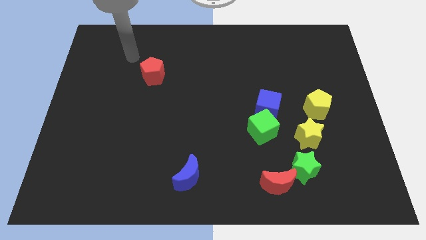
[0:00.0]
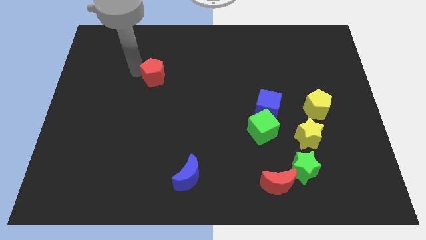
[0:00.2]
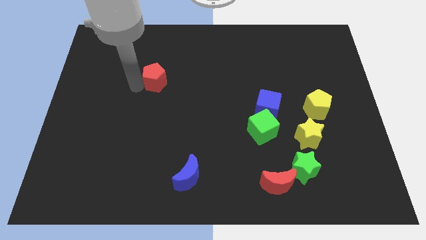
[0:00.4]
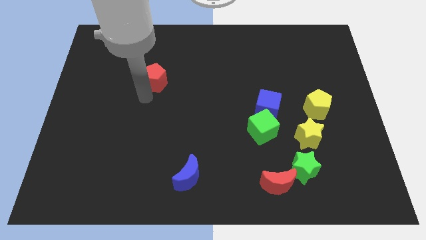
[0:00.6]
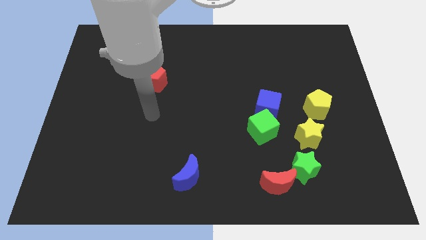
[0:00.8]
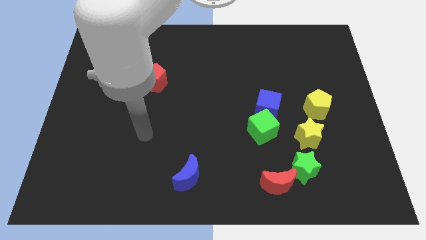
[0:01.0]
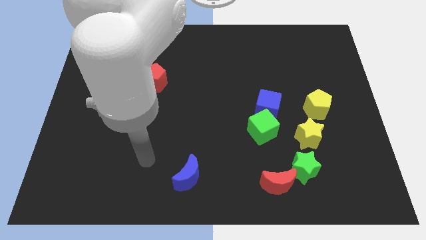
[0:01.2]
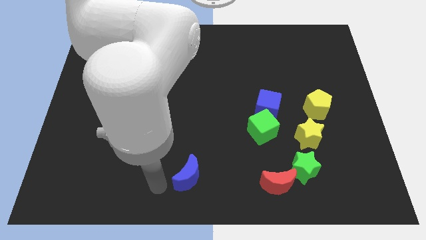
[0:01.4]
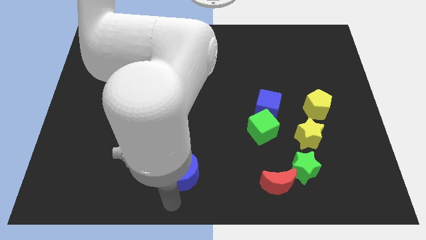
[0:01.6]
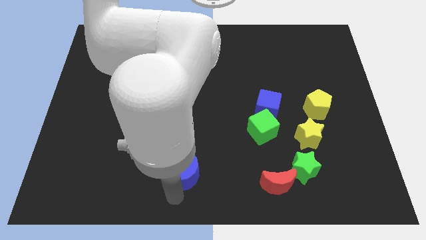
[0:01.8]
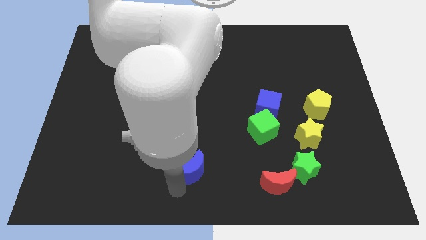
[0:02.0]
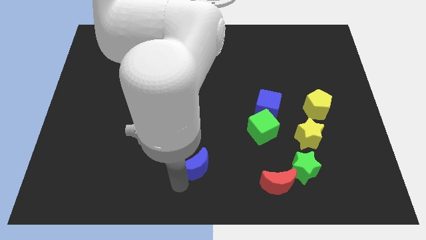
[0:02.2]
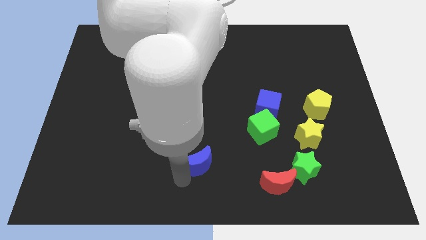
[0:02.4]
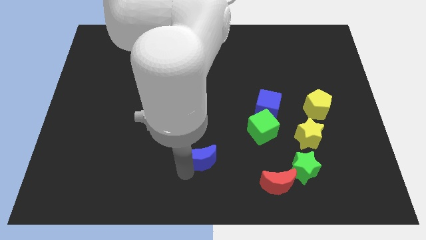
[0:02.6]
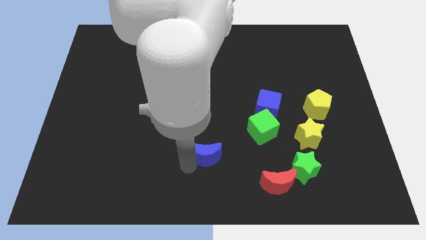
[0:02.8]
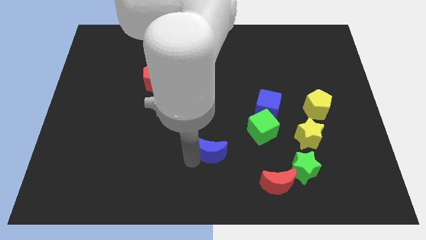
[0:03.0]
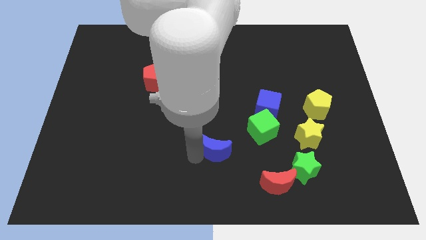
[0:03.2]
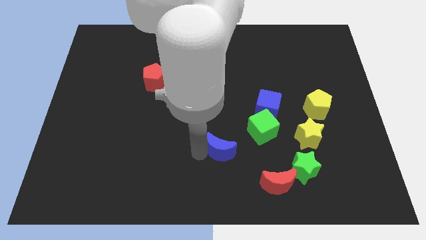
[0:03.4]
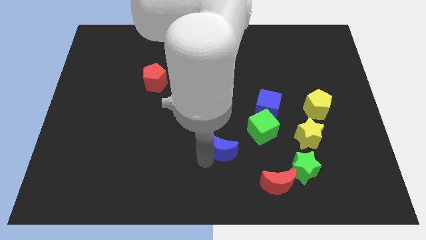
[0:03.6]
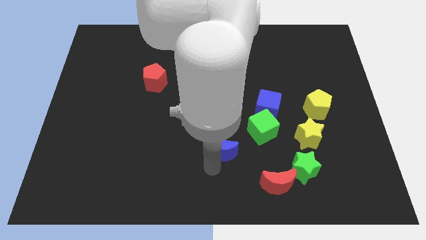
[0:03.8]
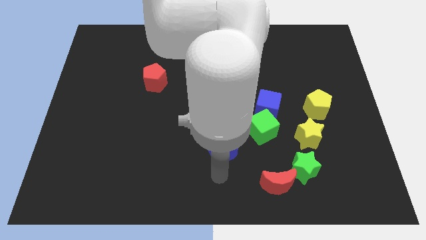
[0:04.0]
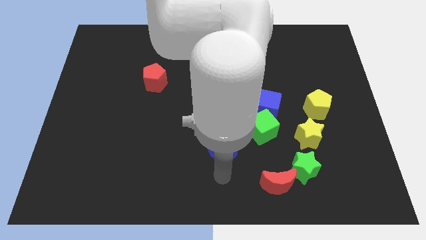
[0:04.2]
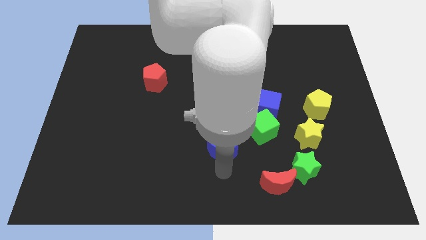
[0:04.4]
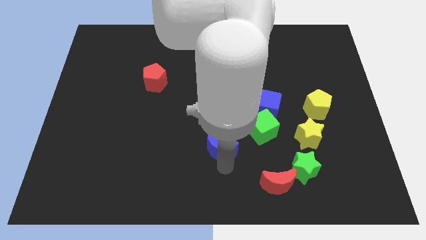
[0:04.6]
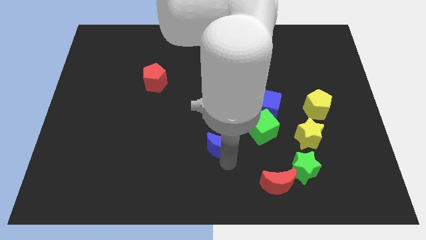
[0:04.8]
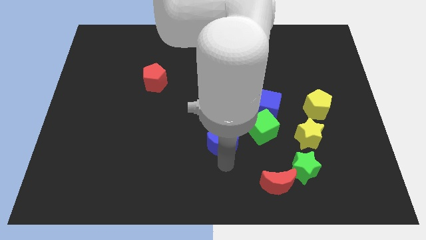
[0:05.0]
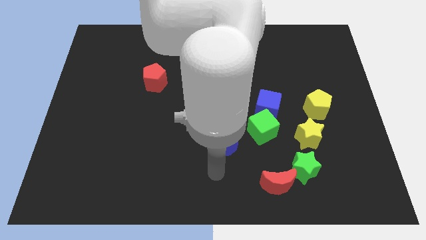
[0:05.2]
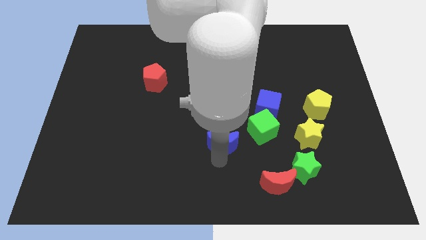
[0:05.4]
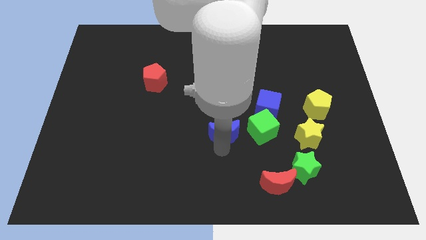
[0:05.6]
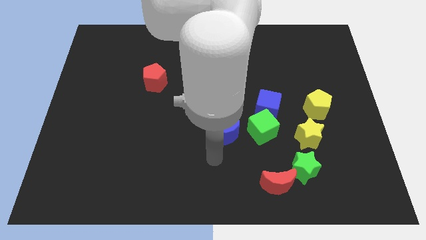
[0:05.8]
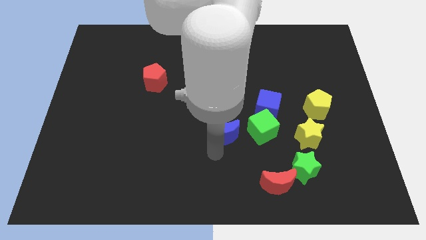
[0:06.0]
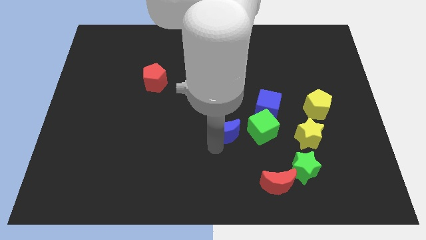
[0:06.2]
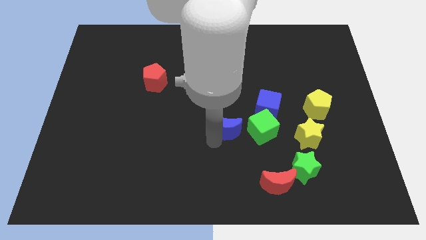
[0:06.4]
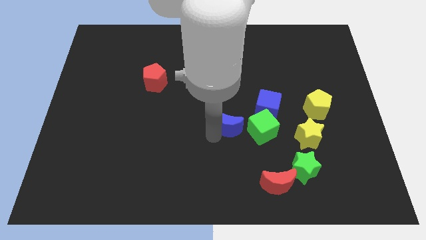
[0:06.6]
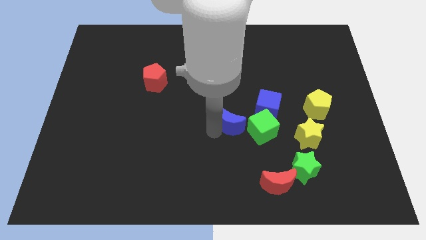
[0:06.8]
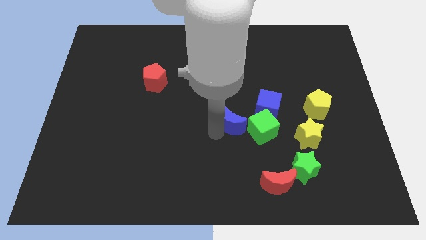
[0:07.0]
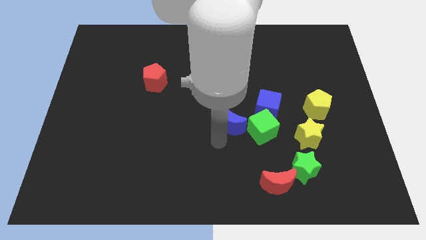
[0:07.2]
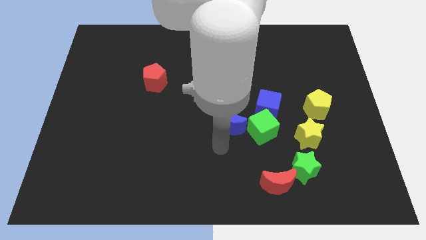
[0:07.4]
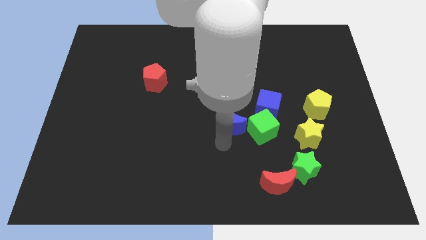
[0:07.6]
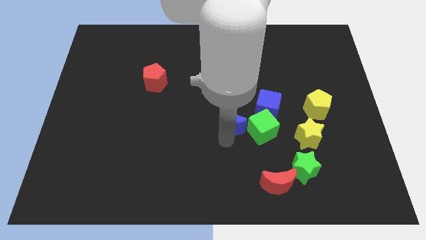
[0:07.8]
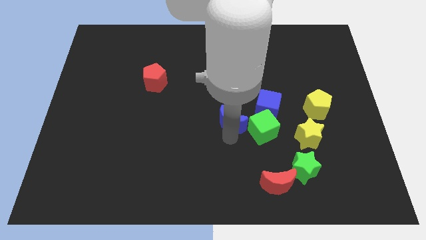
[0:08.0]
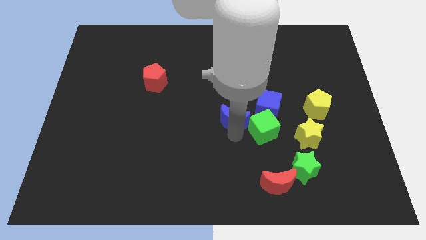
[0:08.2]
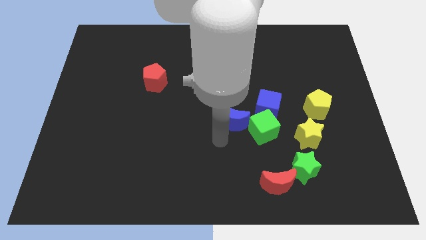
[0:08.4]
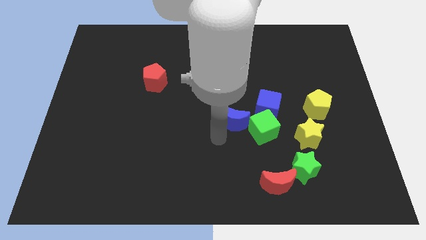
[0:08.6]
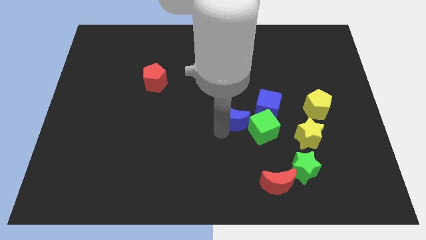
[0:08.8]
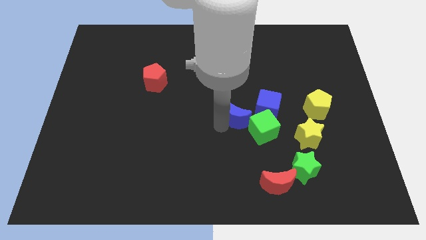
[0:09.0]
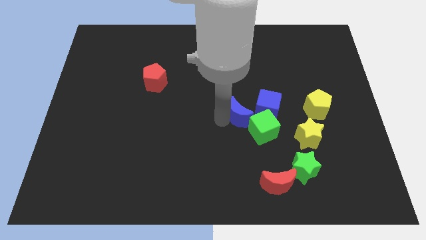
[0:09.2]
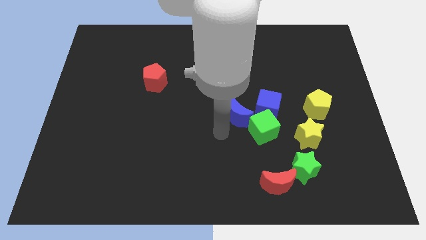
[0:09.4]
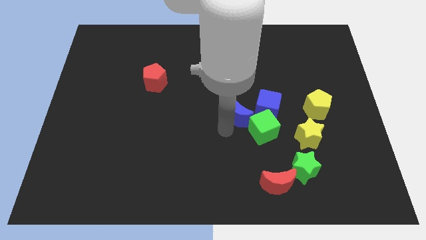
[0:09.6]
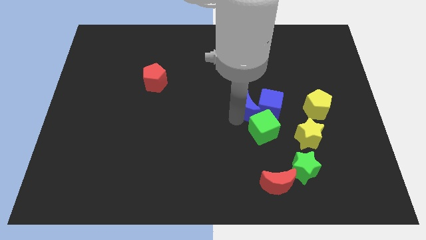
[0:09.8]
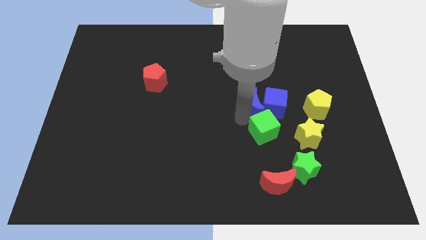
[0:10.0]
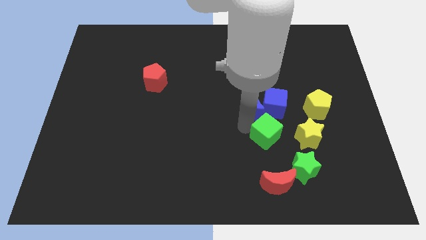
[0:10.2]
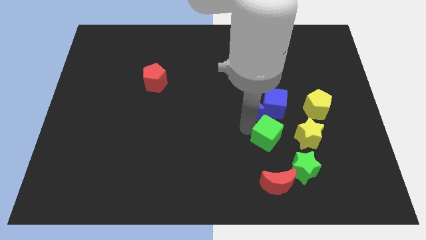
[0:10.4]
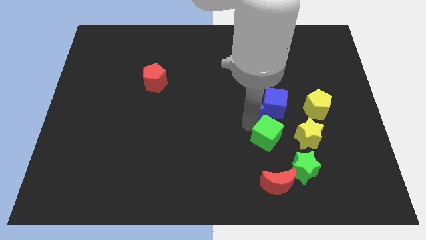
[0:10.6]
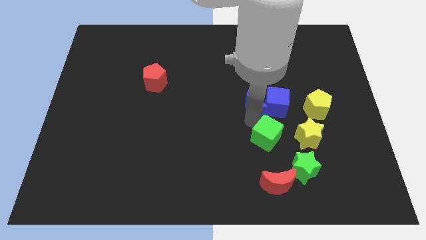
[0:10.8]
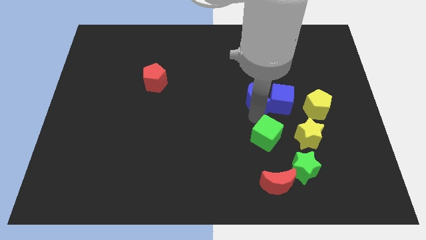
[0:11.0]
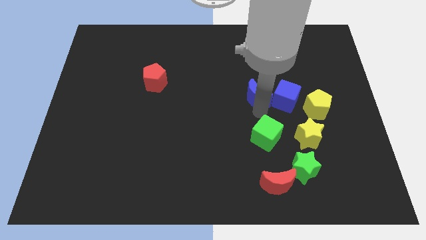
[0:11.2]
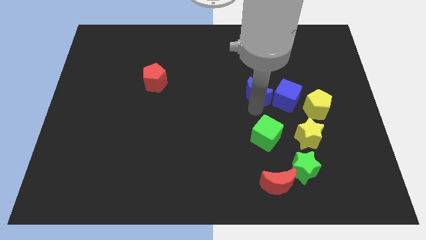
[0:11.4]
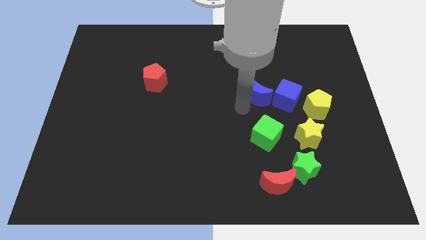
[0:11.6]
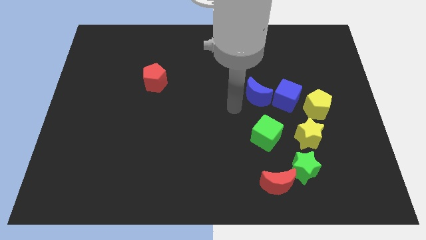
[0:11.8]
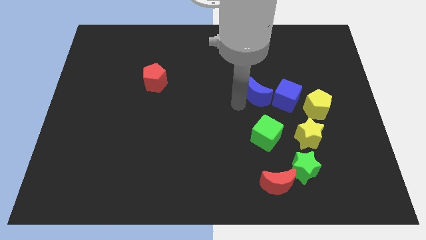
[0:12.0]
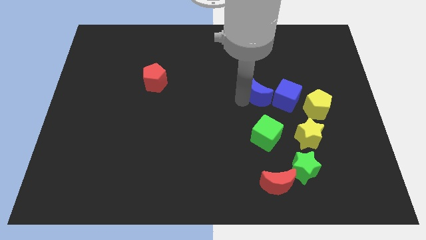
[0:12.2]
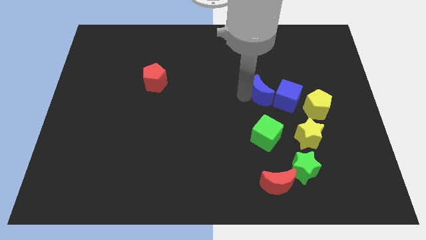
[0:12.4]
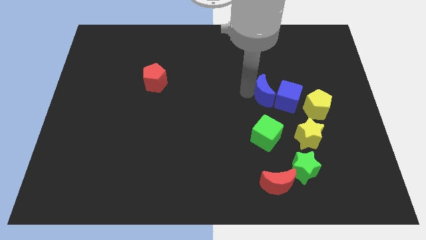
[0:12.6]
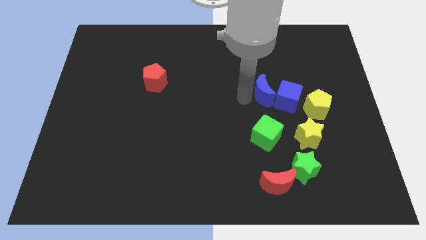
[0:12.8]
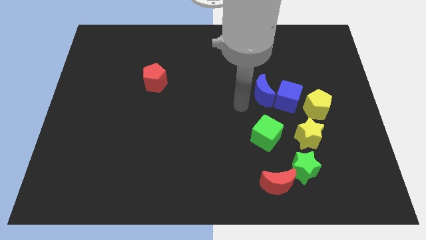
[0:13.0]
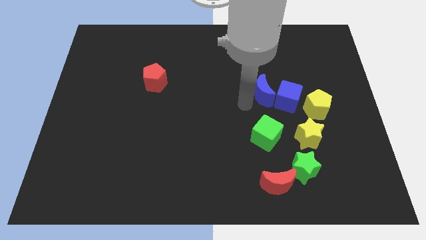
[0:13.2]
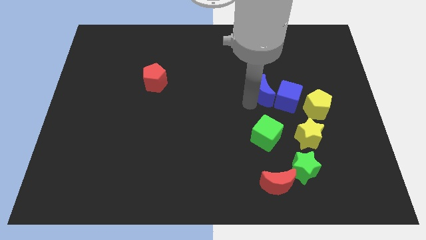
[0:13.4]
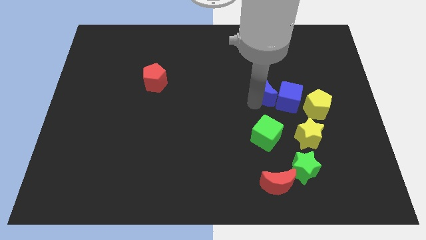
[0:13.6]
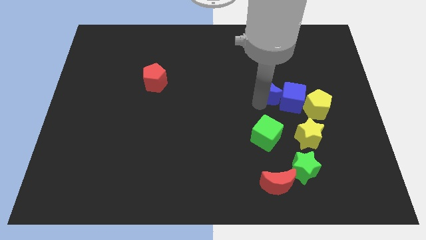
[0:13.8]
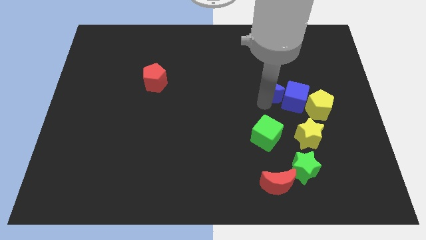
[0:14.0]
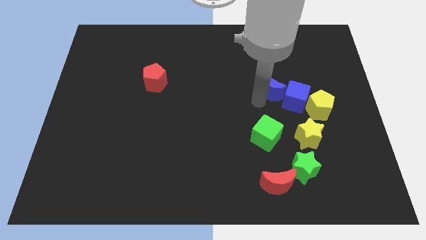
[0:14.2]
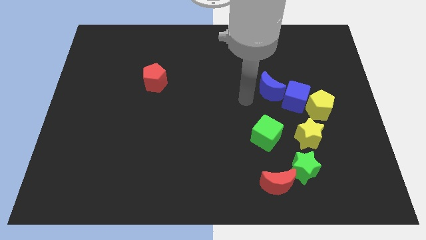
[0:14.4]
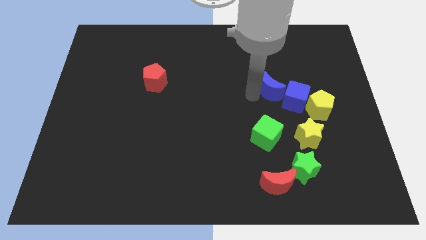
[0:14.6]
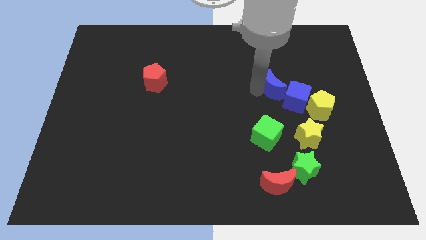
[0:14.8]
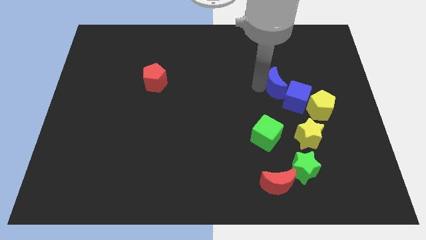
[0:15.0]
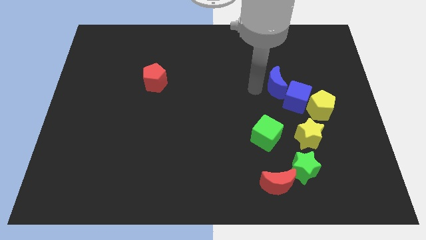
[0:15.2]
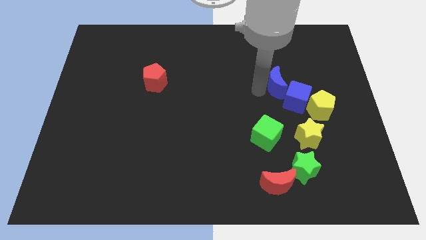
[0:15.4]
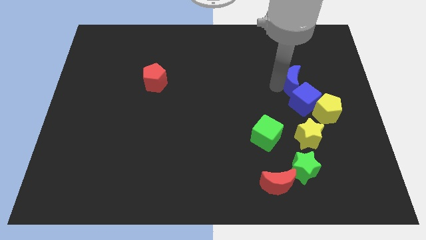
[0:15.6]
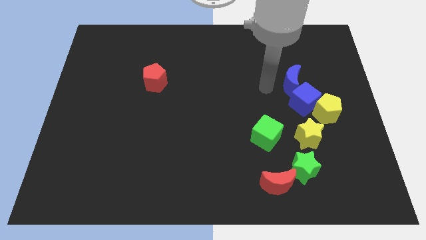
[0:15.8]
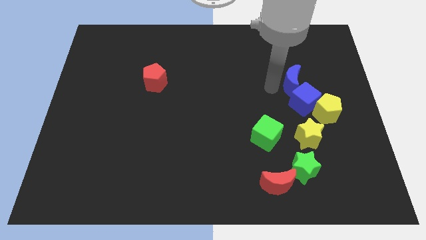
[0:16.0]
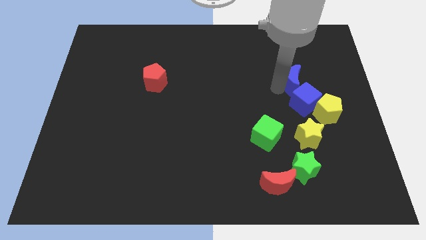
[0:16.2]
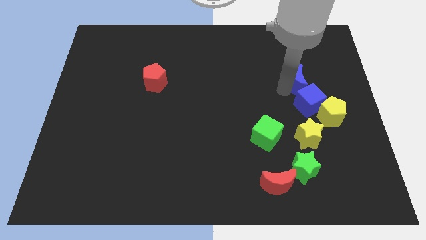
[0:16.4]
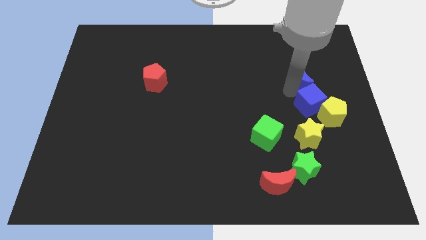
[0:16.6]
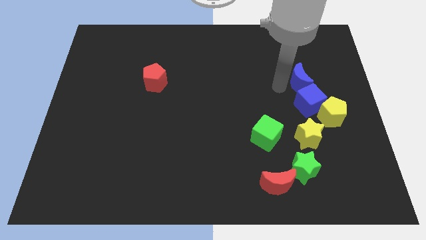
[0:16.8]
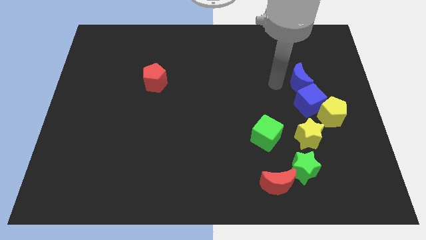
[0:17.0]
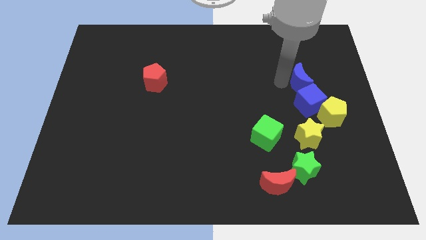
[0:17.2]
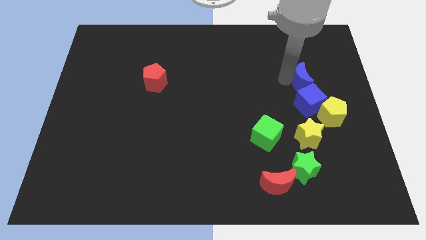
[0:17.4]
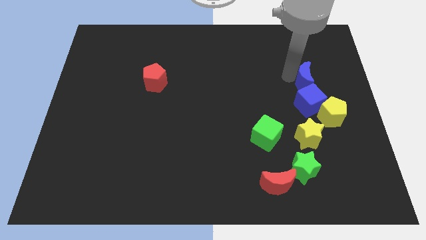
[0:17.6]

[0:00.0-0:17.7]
put the blue moon to the top side of the yellow pentagon
